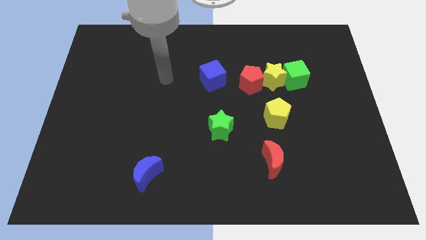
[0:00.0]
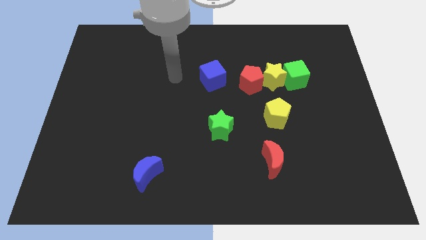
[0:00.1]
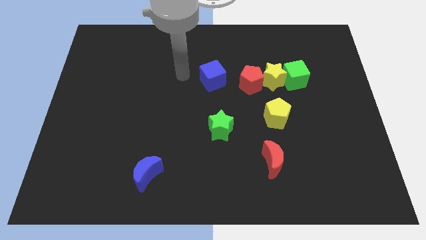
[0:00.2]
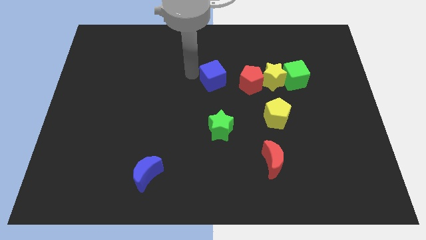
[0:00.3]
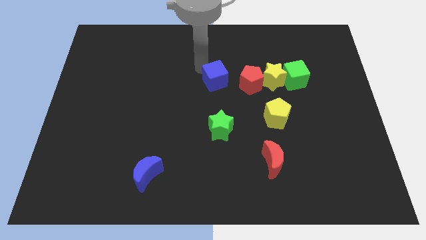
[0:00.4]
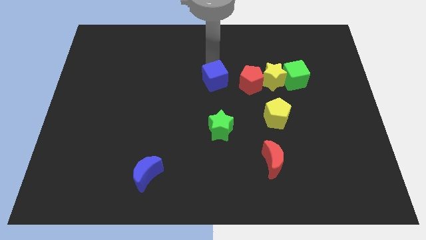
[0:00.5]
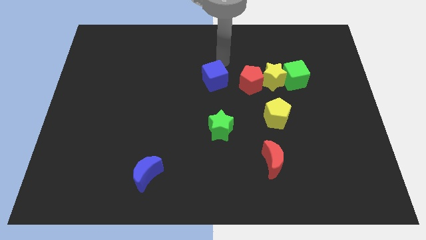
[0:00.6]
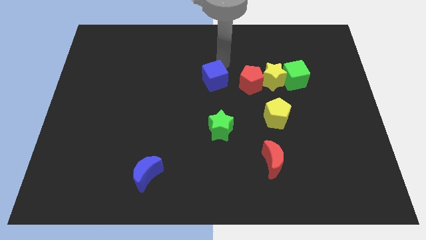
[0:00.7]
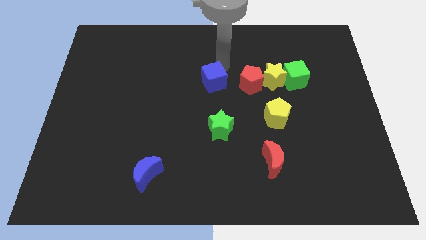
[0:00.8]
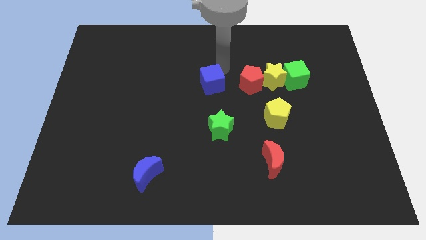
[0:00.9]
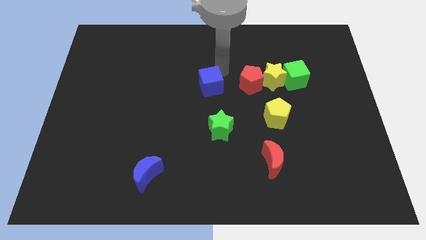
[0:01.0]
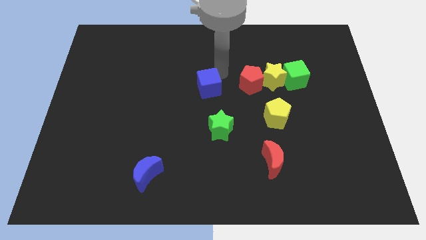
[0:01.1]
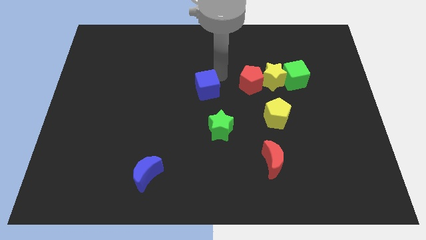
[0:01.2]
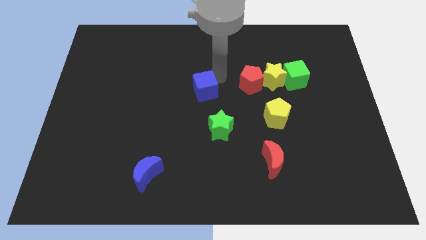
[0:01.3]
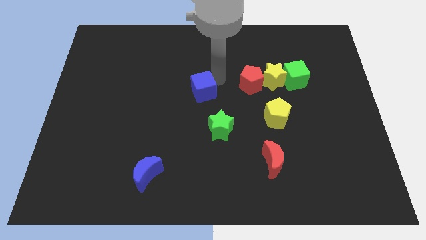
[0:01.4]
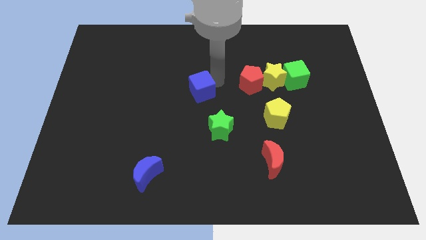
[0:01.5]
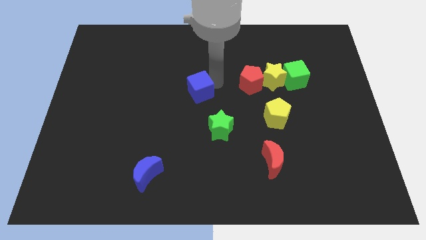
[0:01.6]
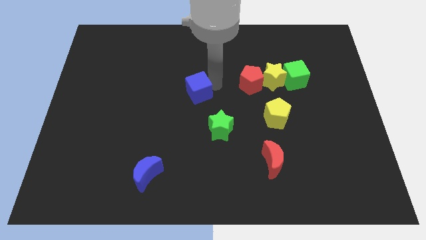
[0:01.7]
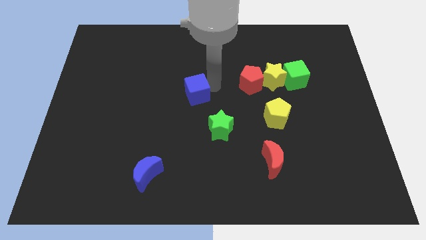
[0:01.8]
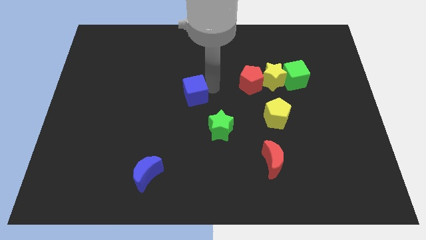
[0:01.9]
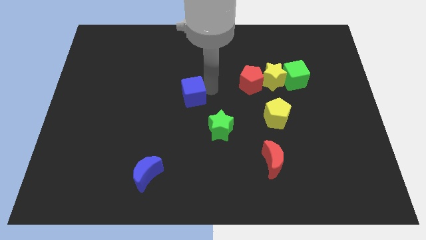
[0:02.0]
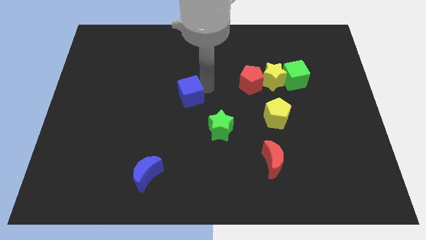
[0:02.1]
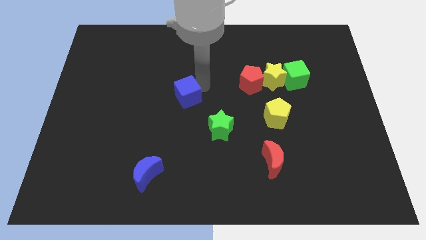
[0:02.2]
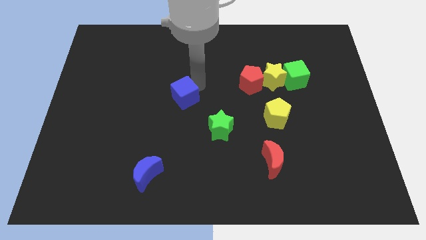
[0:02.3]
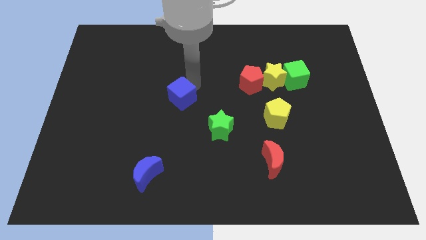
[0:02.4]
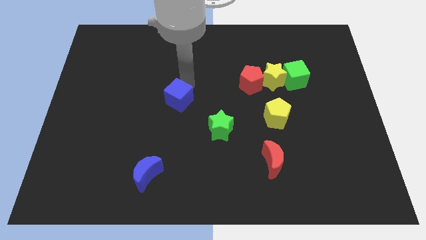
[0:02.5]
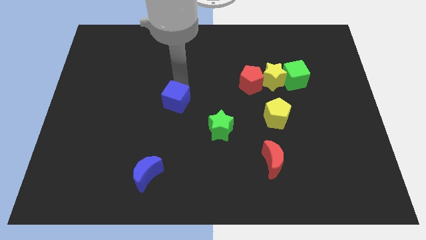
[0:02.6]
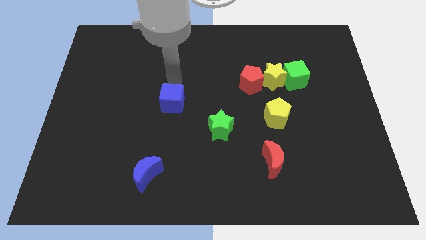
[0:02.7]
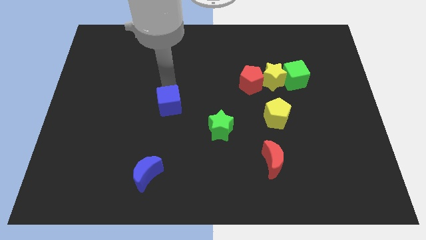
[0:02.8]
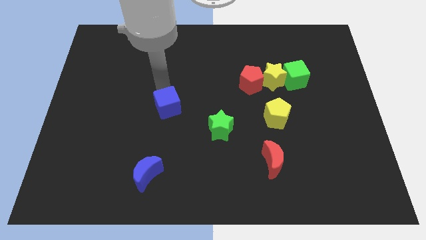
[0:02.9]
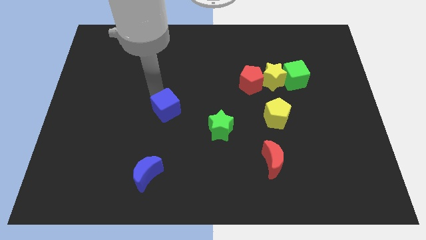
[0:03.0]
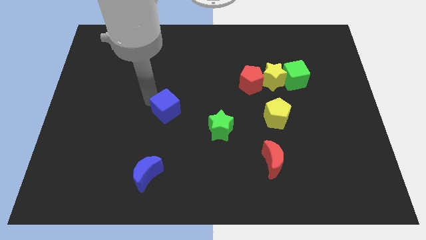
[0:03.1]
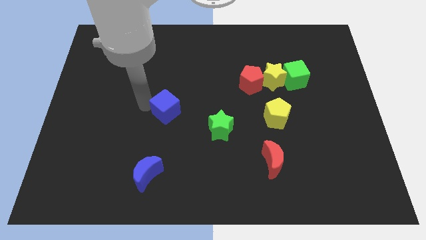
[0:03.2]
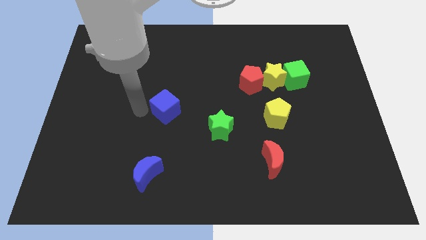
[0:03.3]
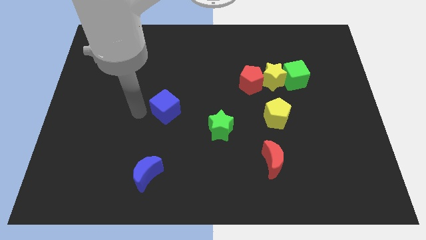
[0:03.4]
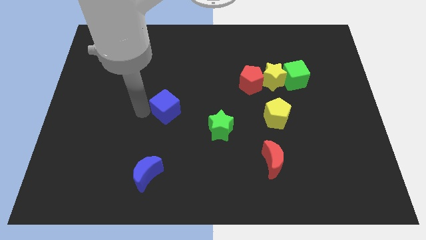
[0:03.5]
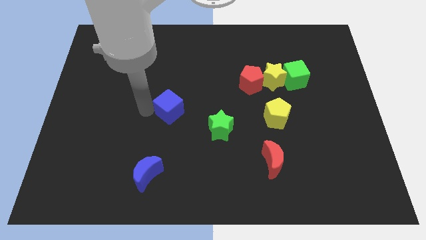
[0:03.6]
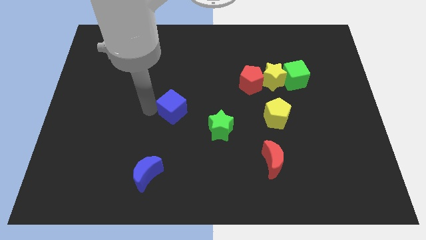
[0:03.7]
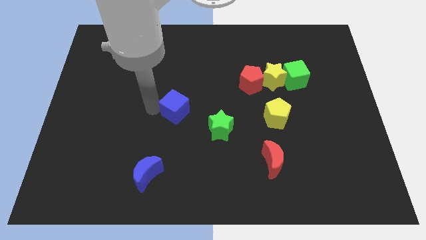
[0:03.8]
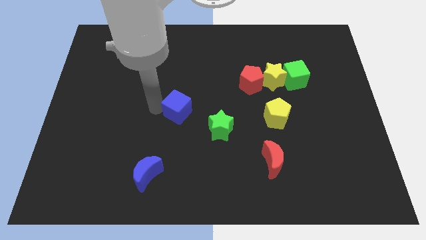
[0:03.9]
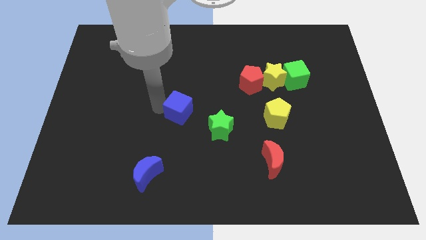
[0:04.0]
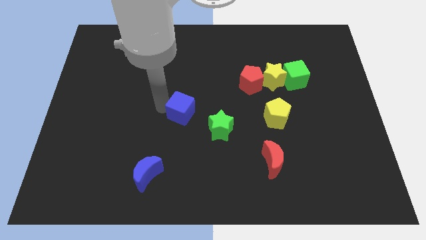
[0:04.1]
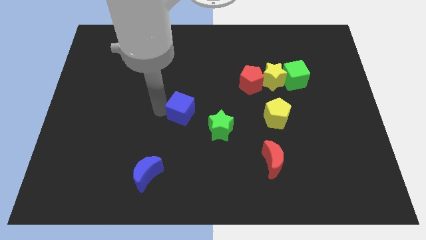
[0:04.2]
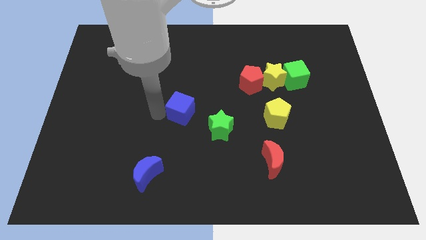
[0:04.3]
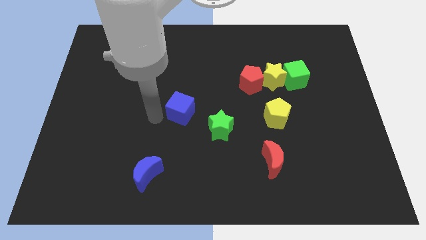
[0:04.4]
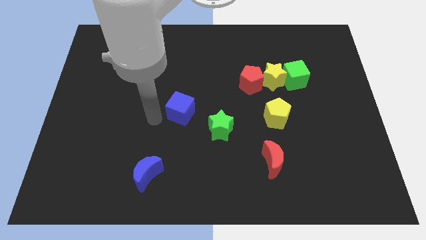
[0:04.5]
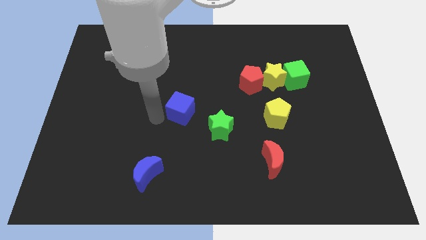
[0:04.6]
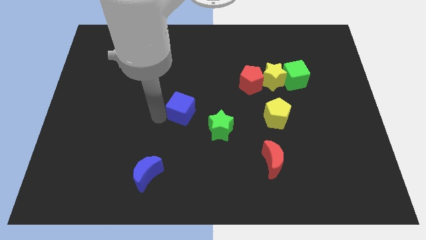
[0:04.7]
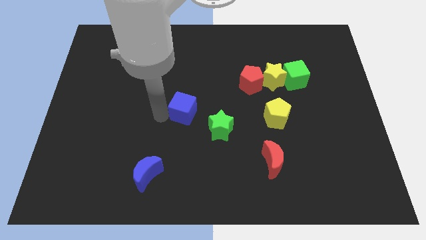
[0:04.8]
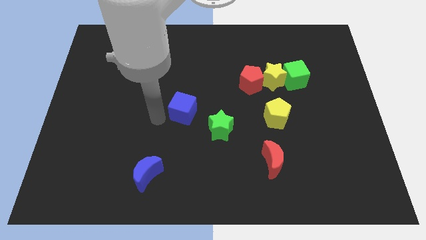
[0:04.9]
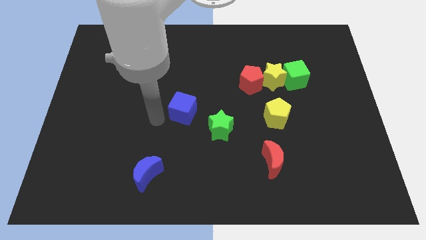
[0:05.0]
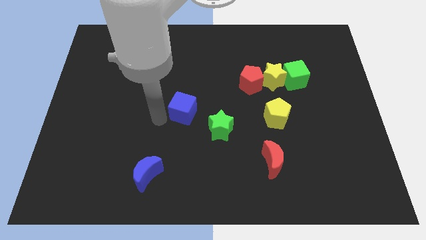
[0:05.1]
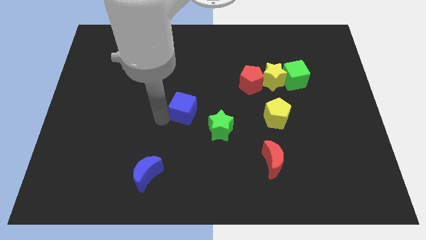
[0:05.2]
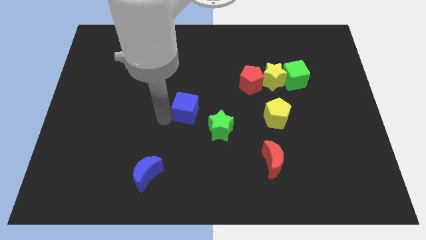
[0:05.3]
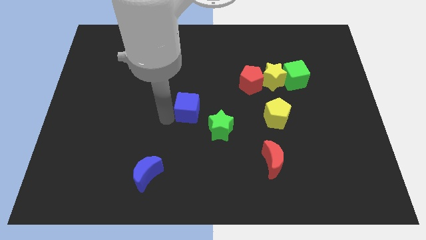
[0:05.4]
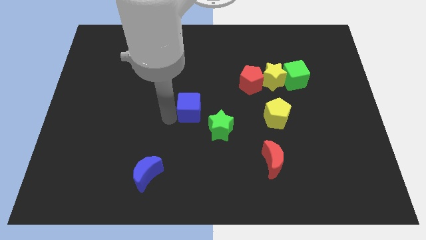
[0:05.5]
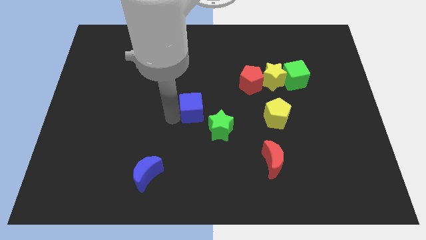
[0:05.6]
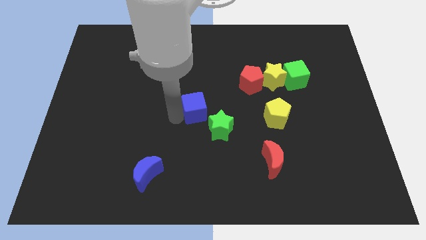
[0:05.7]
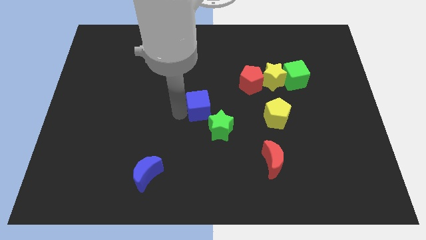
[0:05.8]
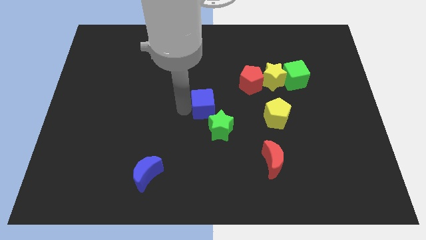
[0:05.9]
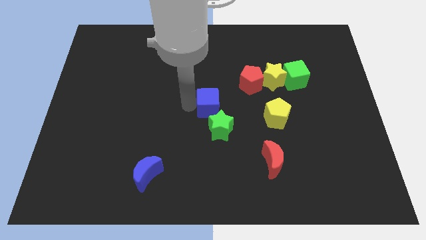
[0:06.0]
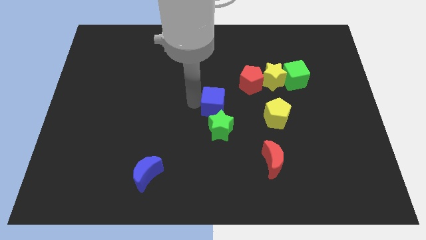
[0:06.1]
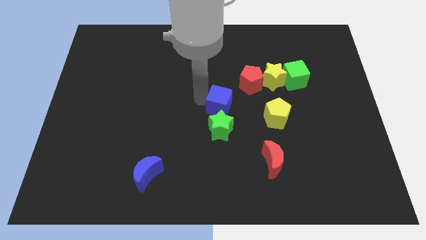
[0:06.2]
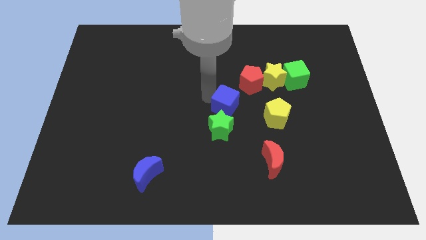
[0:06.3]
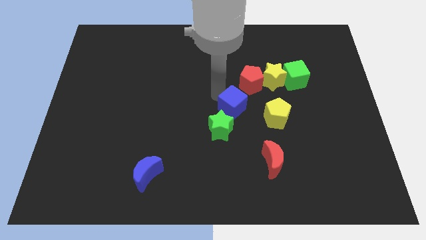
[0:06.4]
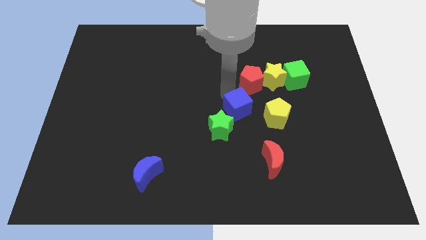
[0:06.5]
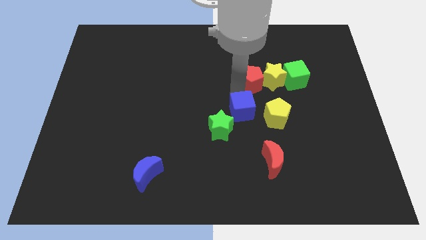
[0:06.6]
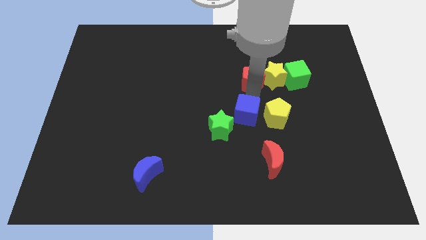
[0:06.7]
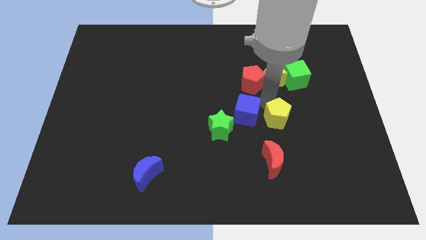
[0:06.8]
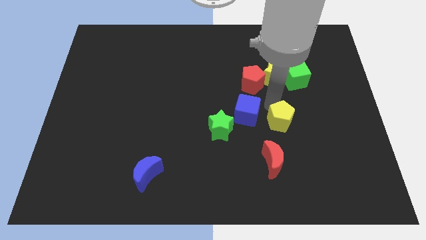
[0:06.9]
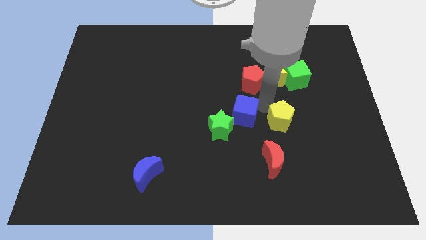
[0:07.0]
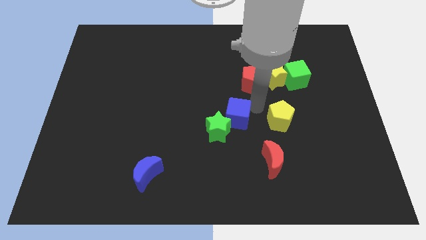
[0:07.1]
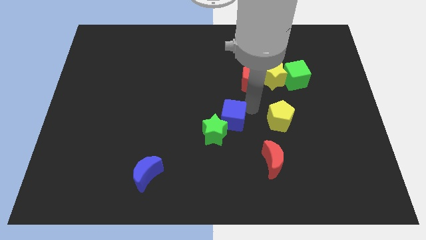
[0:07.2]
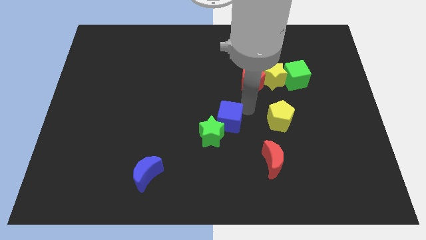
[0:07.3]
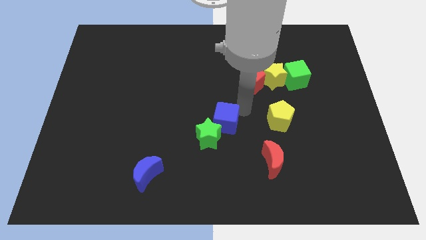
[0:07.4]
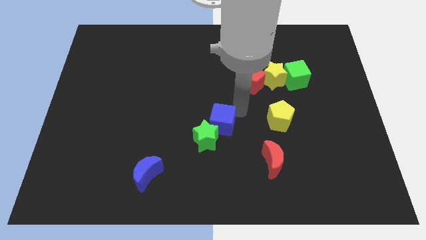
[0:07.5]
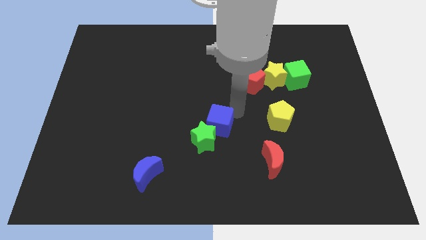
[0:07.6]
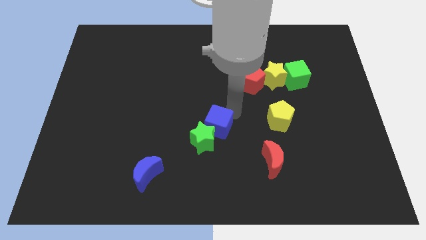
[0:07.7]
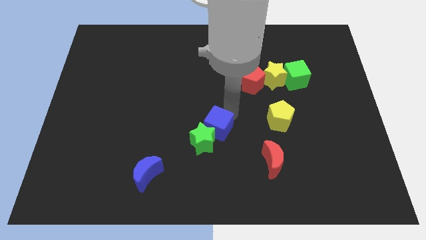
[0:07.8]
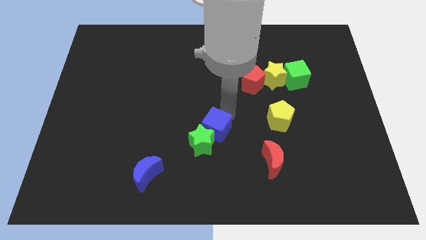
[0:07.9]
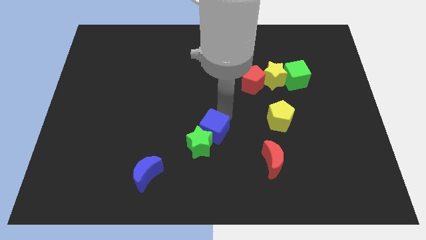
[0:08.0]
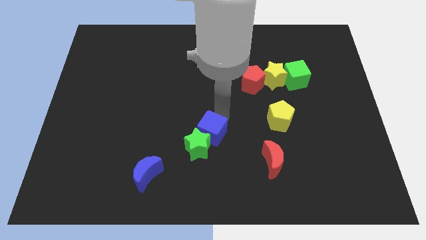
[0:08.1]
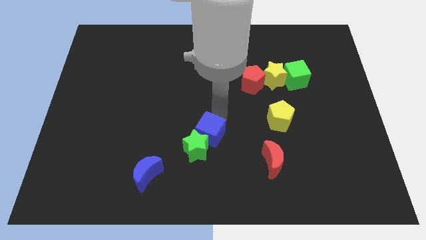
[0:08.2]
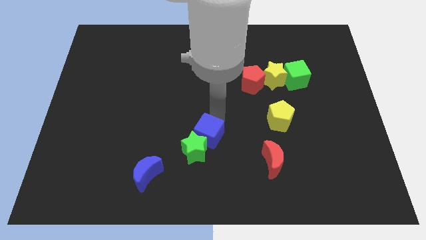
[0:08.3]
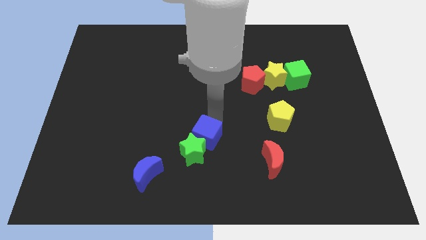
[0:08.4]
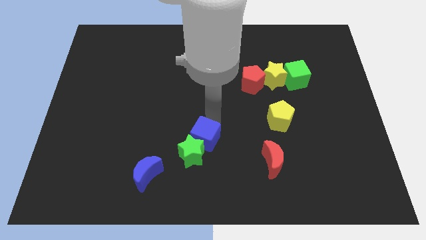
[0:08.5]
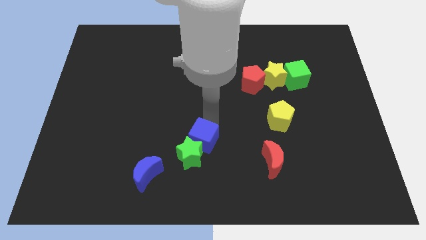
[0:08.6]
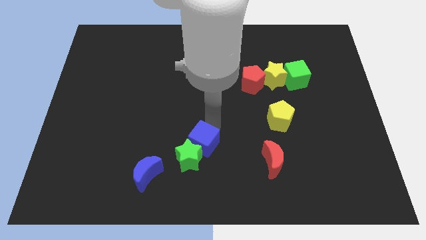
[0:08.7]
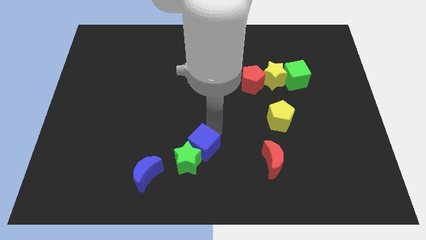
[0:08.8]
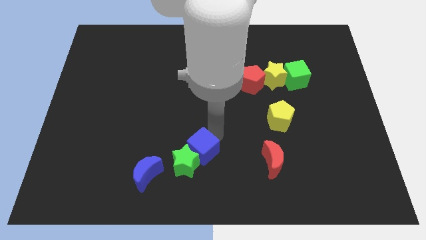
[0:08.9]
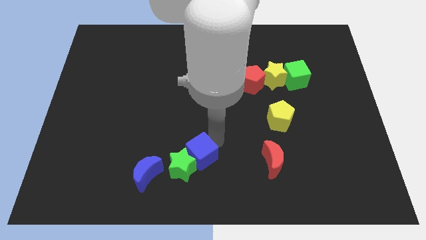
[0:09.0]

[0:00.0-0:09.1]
push the blue cube to the bottom side
